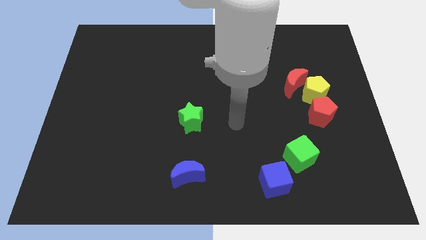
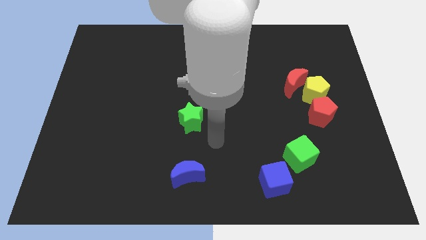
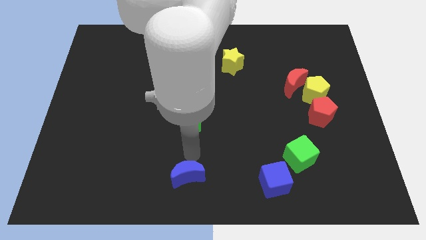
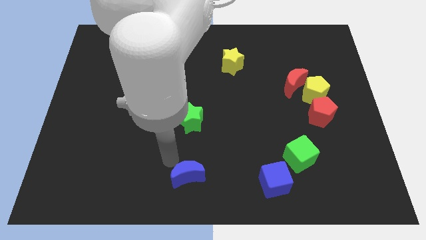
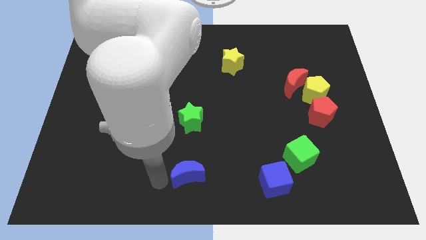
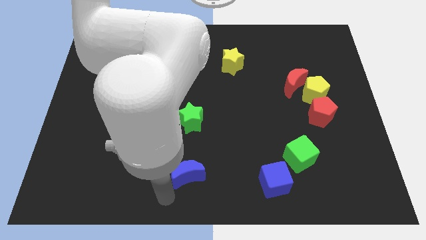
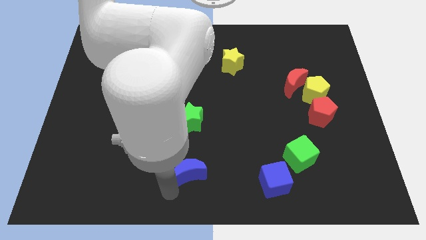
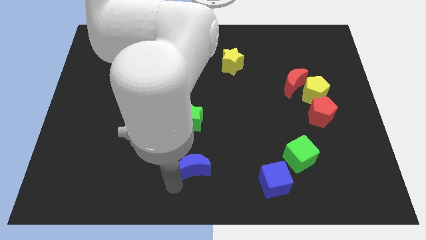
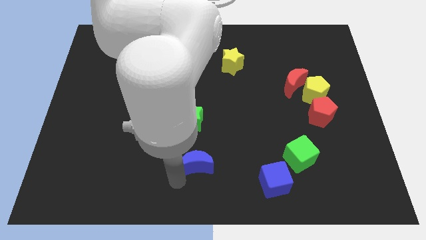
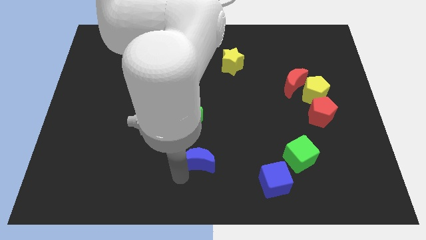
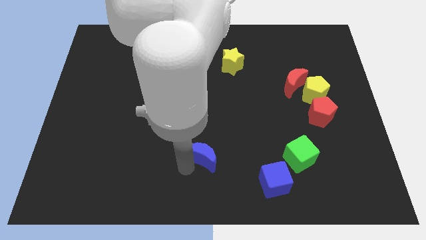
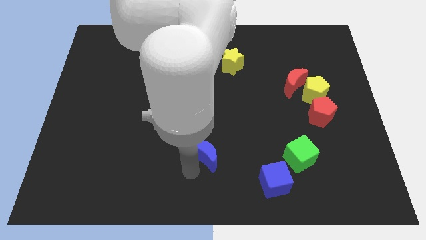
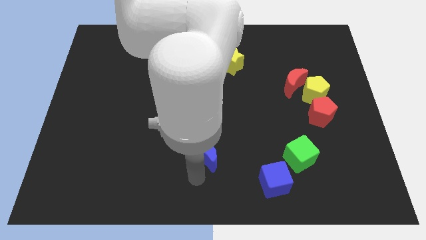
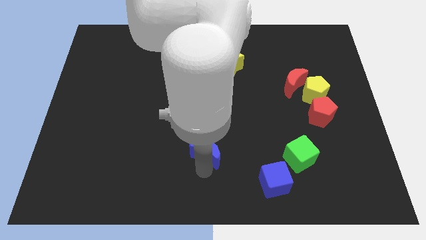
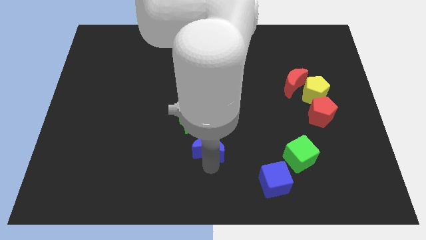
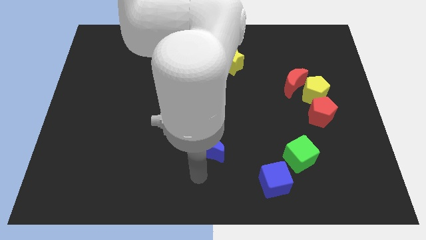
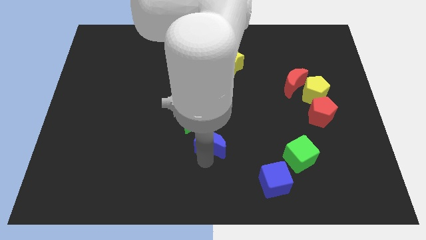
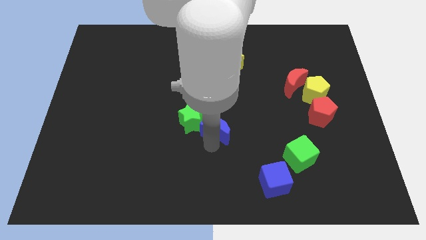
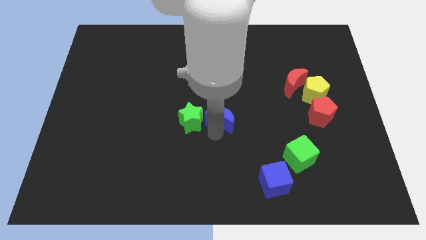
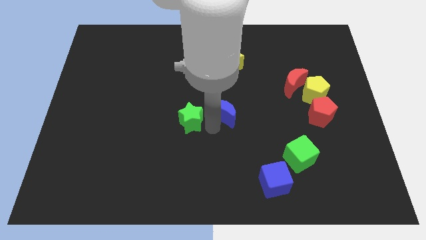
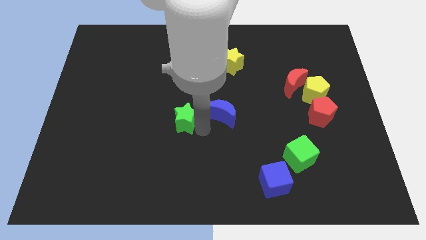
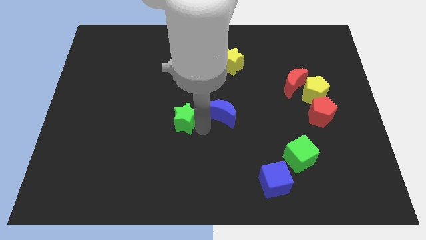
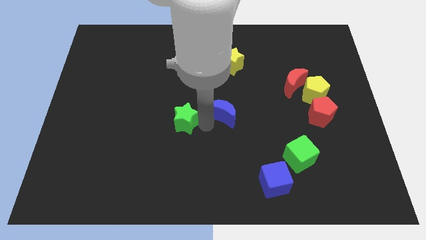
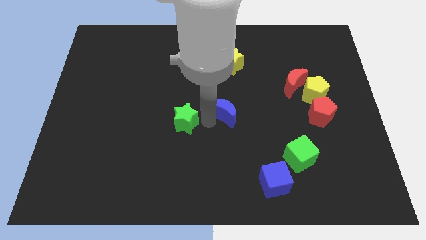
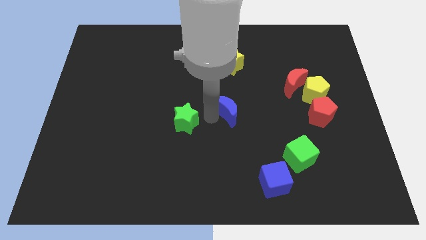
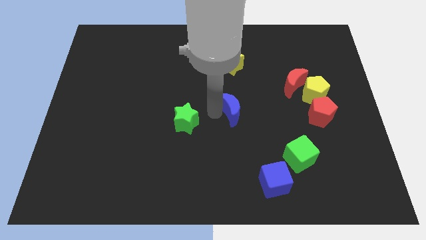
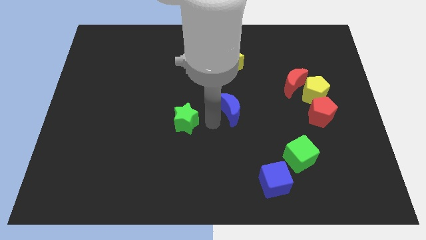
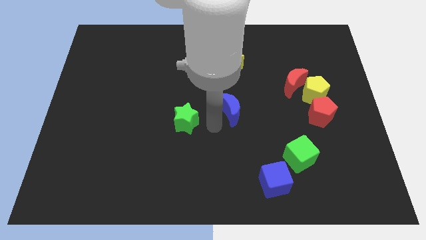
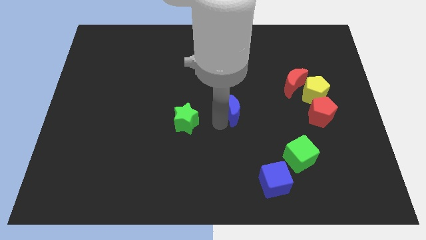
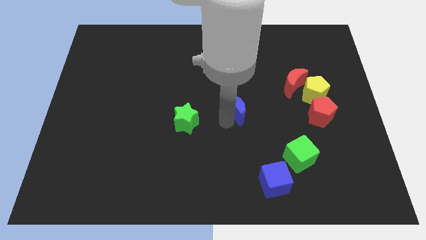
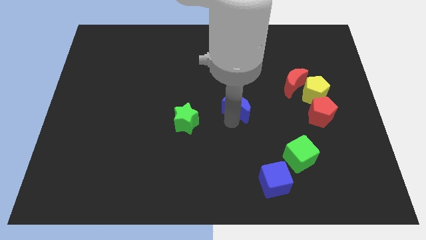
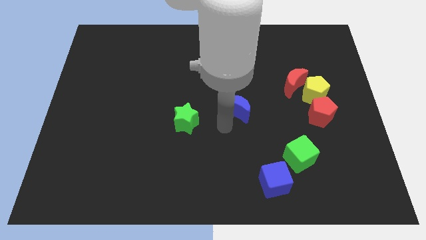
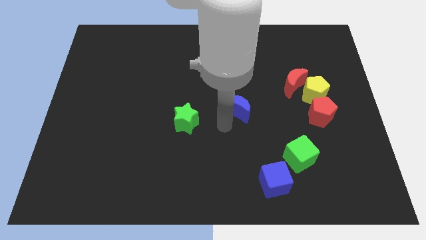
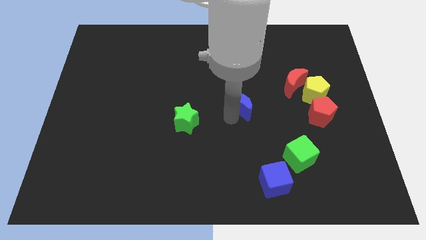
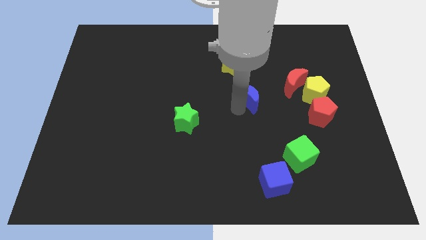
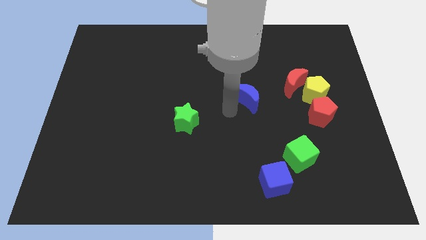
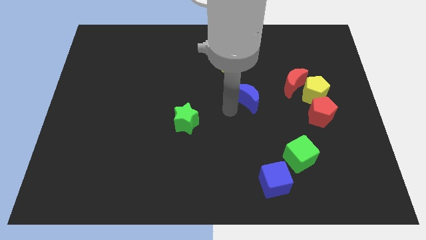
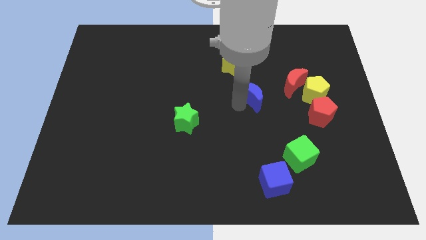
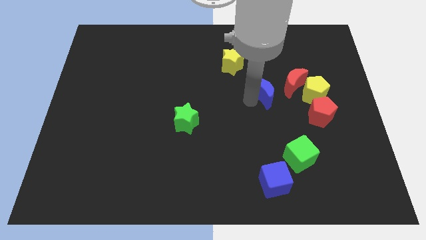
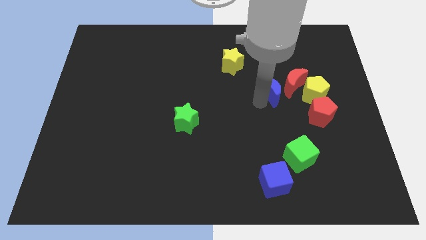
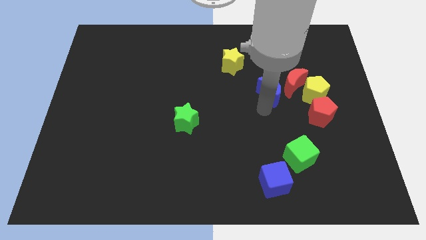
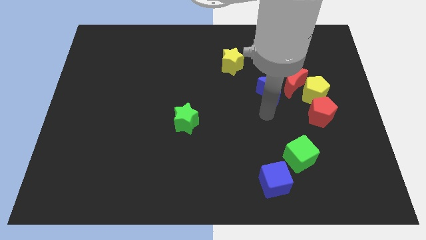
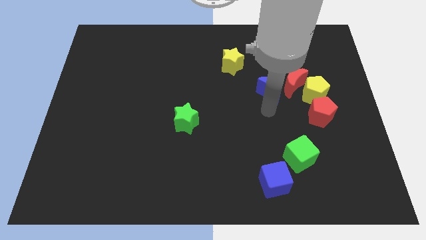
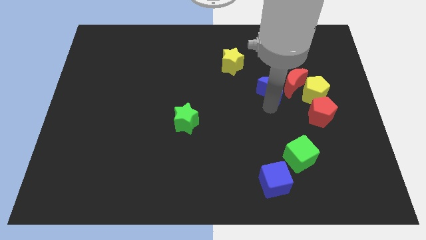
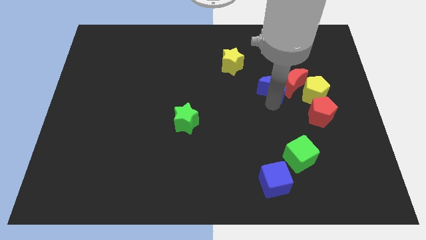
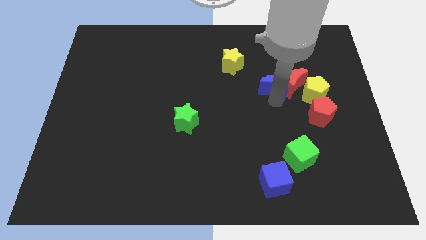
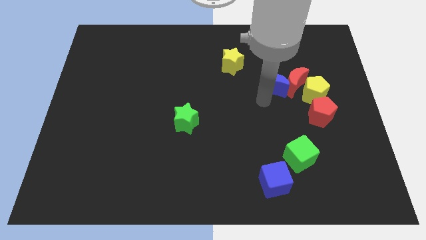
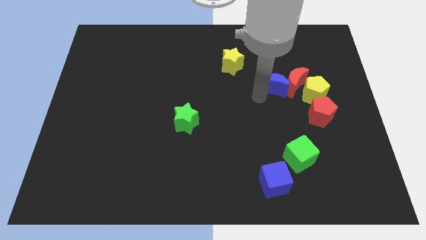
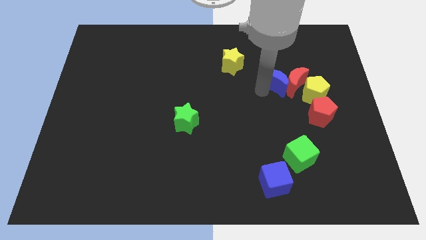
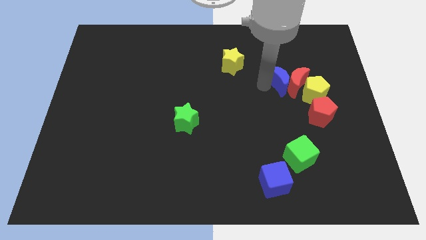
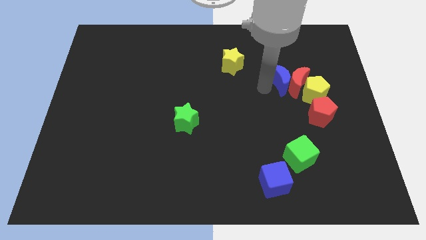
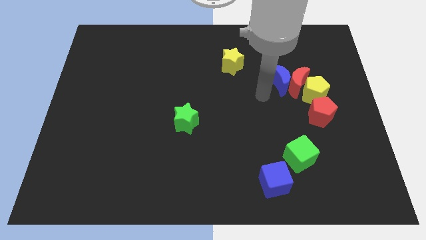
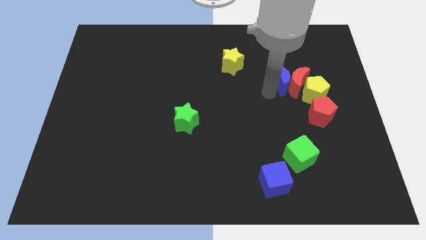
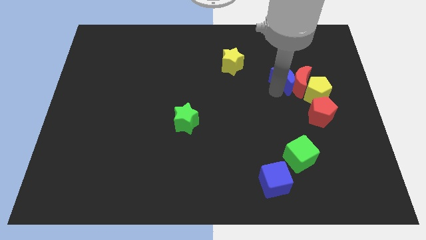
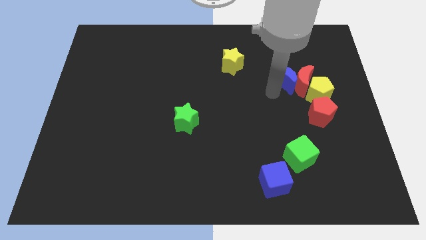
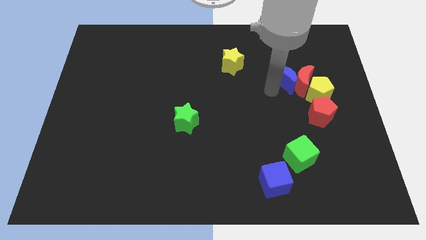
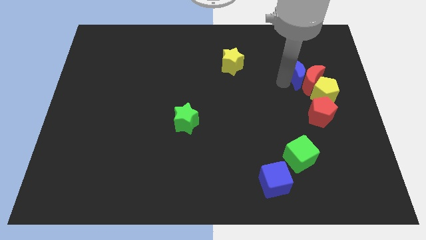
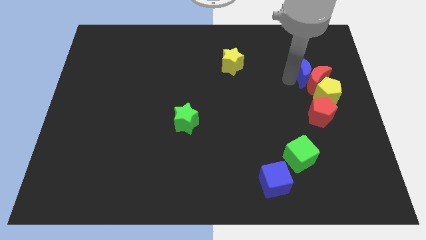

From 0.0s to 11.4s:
push the blue moon above the yellow pentagon

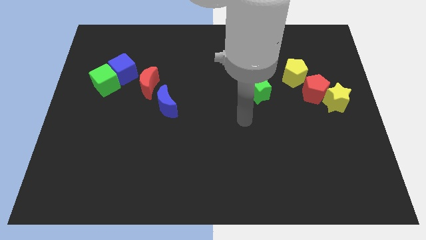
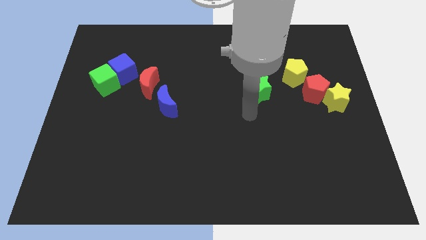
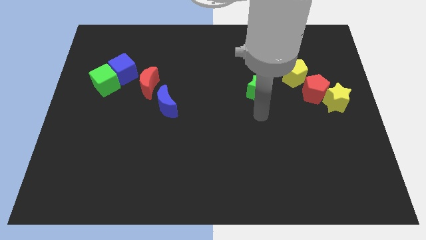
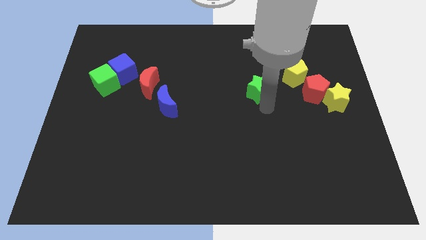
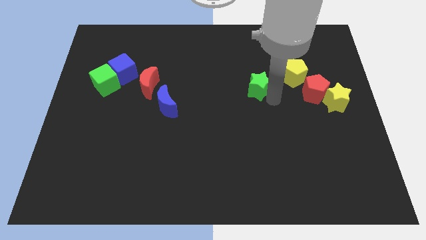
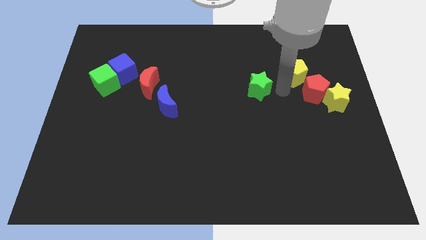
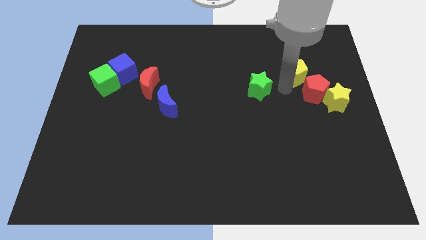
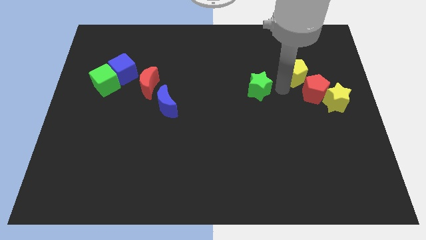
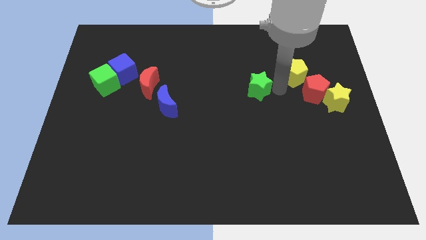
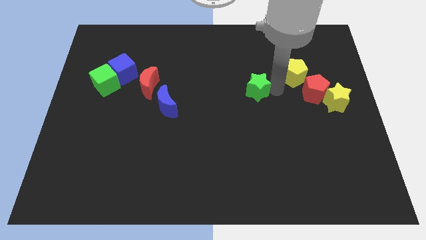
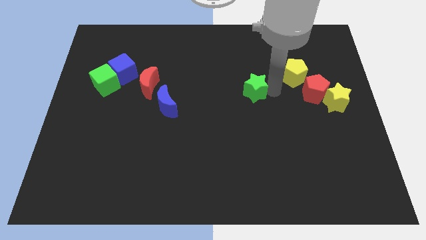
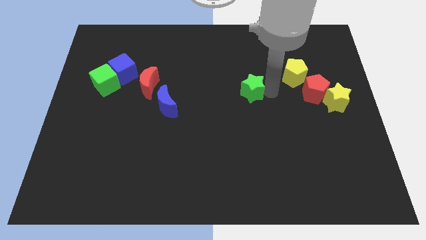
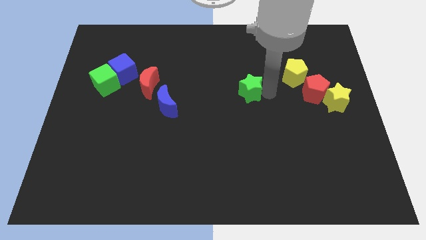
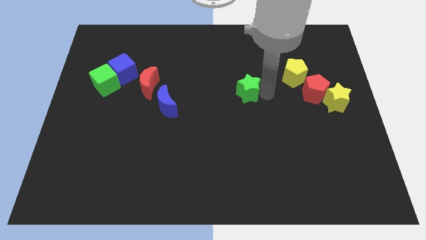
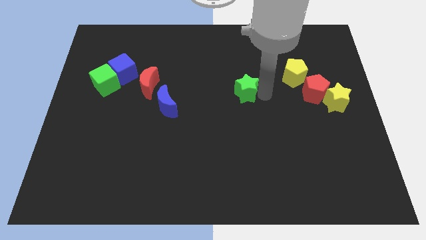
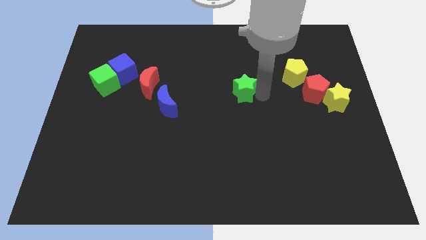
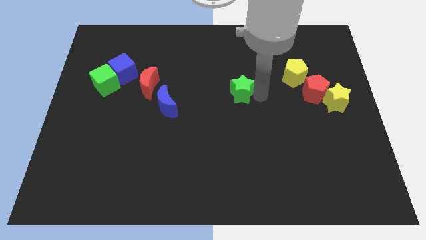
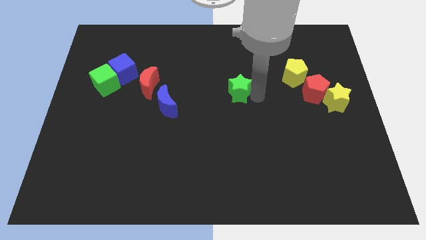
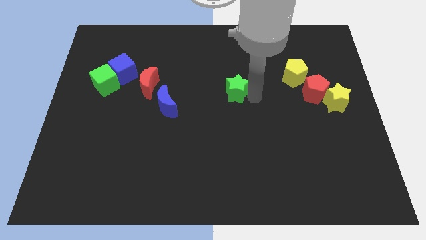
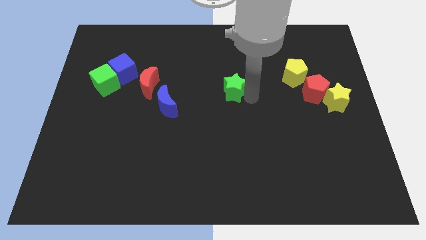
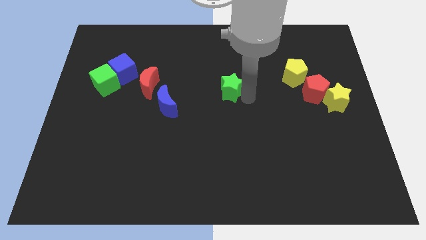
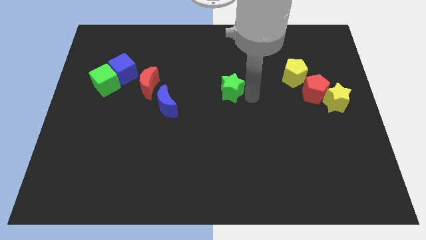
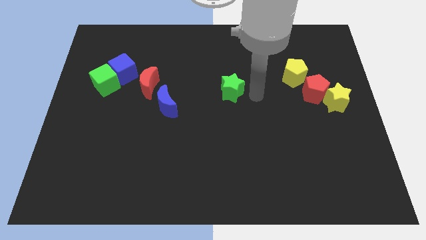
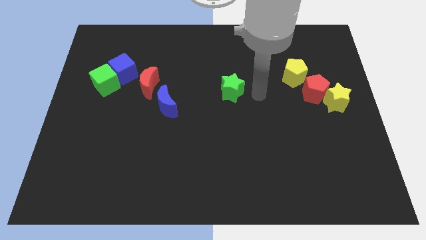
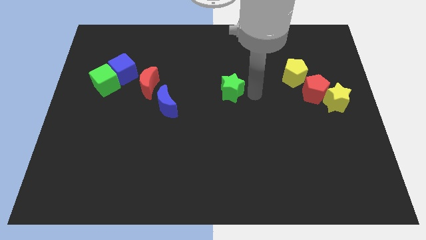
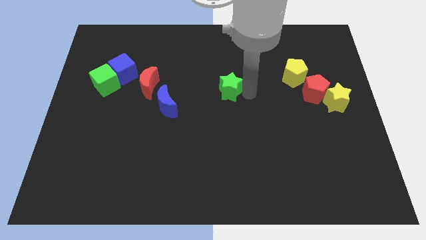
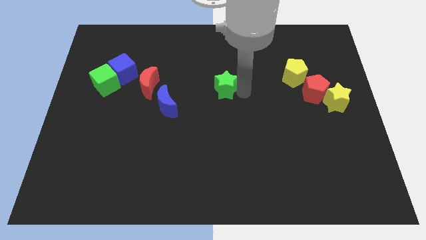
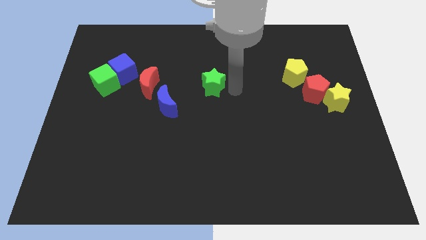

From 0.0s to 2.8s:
put the green star to the right of the red moon
